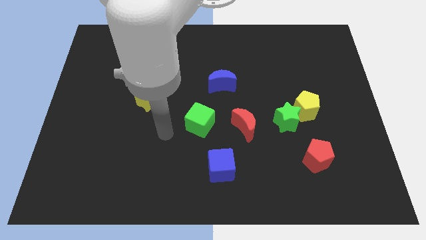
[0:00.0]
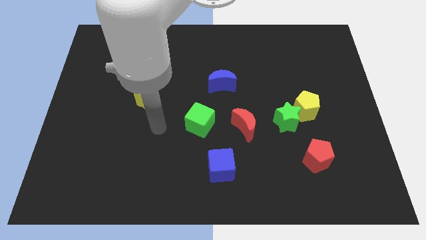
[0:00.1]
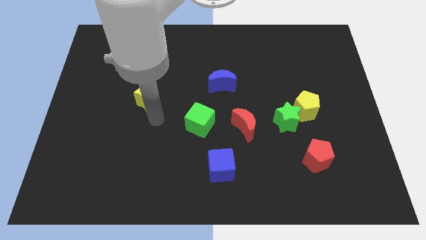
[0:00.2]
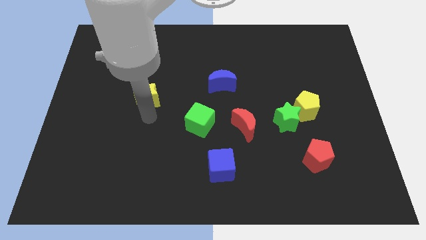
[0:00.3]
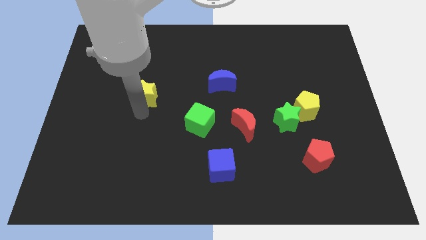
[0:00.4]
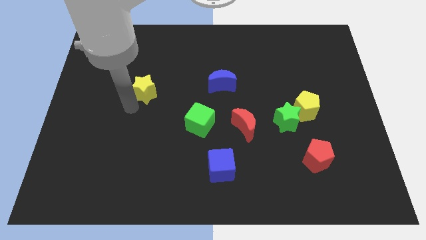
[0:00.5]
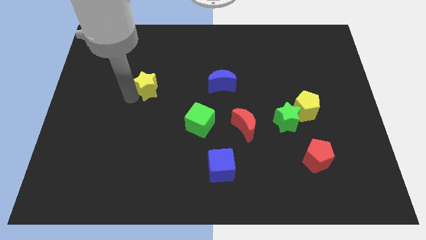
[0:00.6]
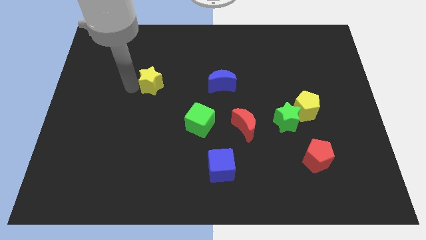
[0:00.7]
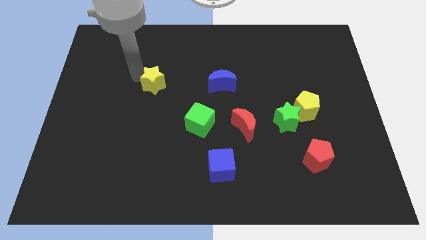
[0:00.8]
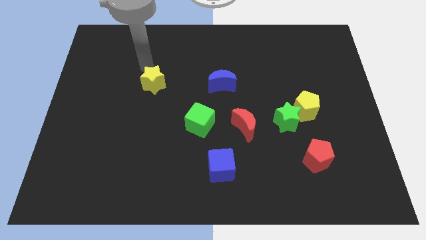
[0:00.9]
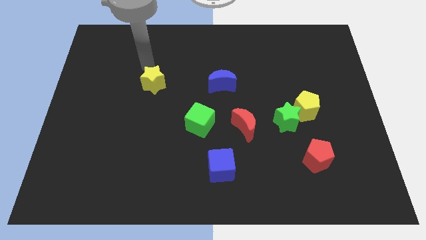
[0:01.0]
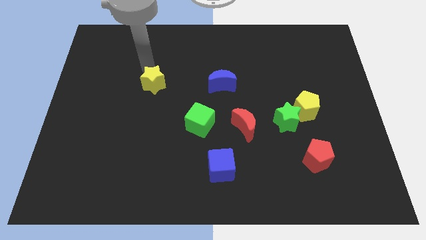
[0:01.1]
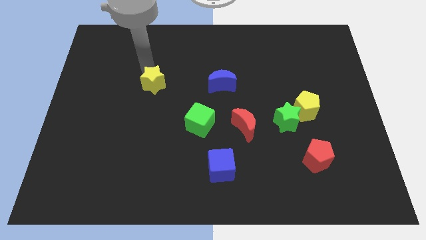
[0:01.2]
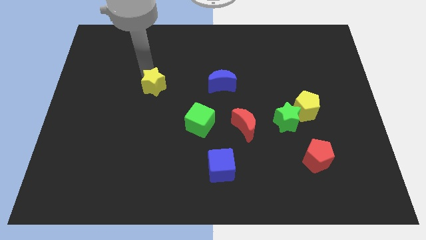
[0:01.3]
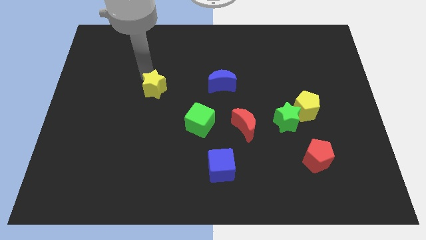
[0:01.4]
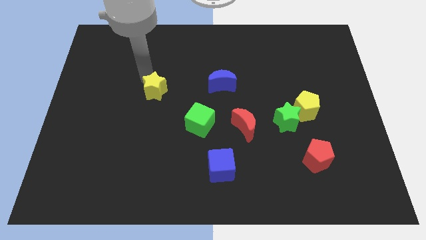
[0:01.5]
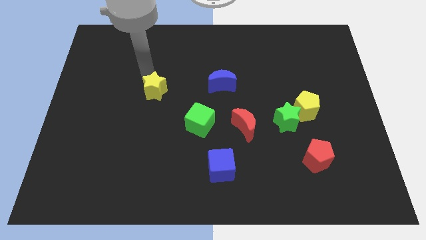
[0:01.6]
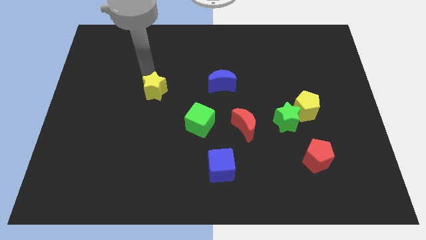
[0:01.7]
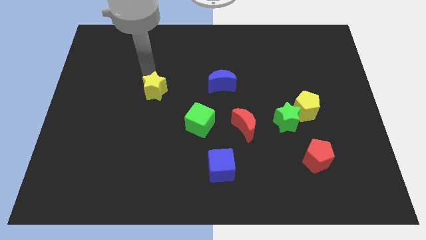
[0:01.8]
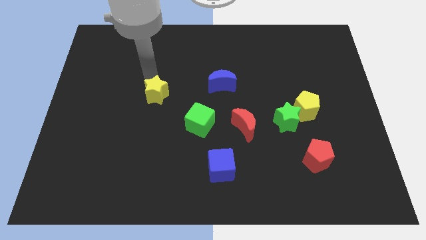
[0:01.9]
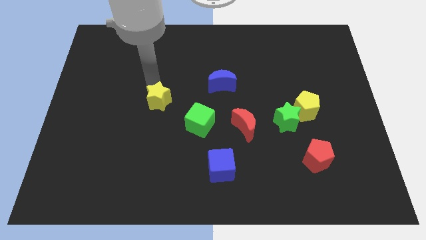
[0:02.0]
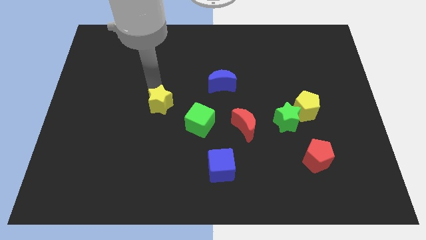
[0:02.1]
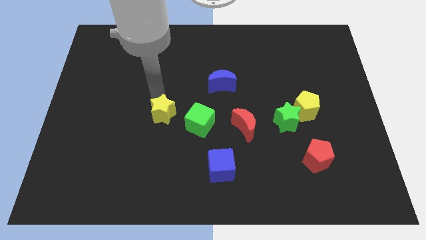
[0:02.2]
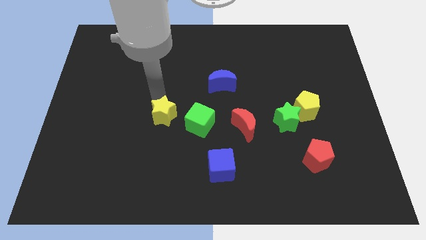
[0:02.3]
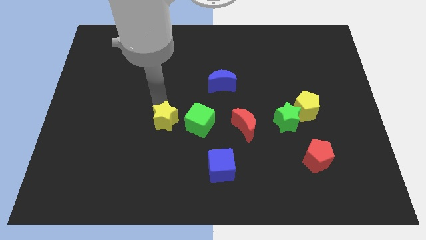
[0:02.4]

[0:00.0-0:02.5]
slightly push the yellow star down and then right

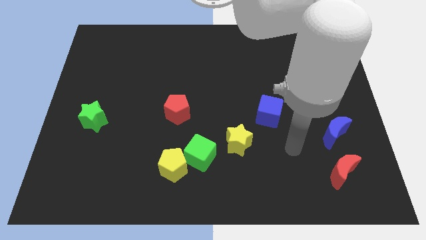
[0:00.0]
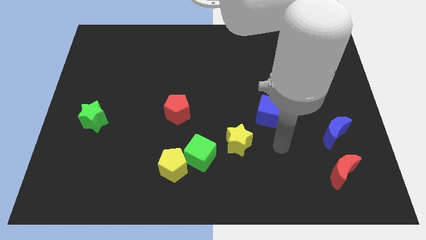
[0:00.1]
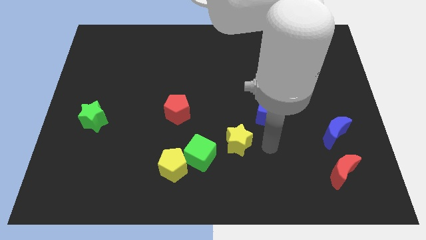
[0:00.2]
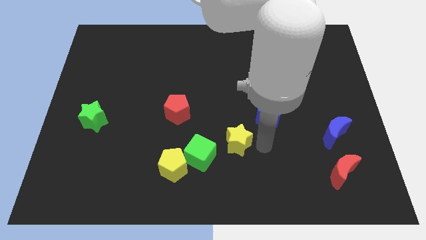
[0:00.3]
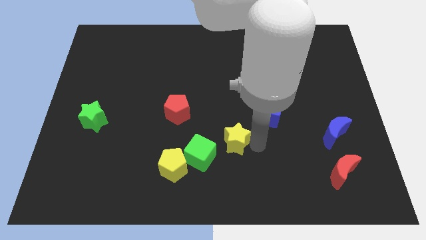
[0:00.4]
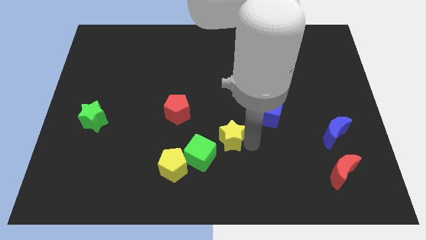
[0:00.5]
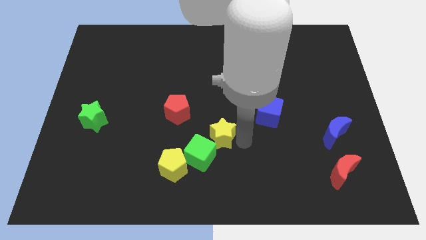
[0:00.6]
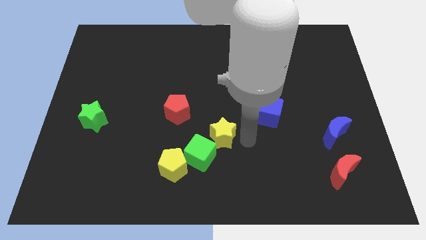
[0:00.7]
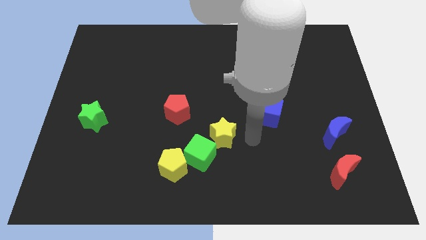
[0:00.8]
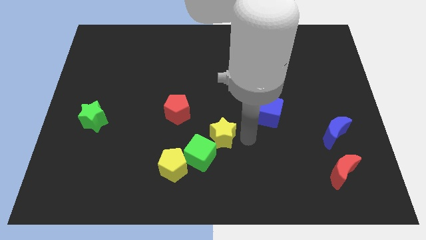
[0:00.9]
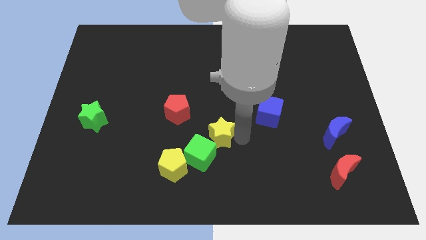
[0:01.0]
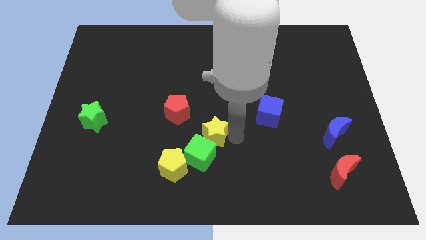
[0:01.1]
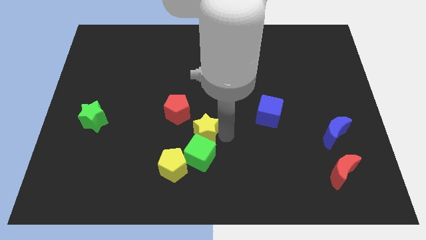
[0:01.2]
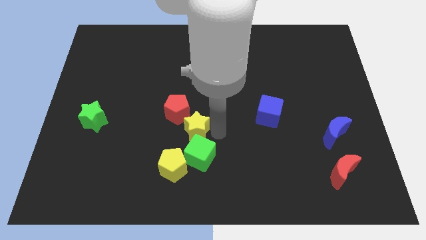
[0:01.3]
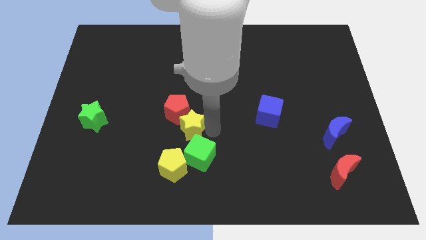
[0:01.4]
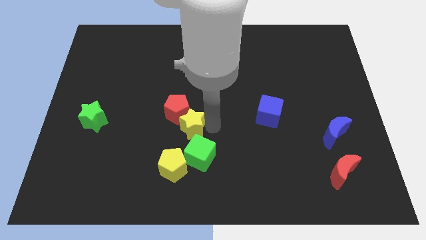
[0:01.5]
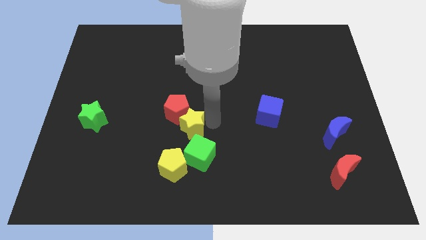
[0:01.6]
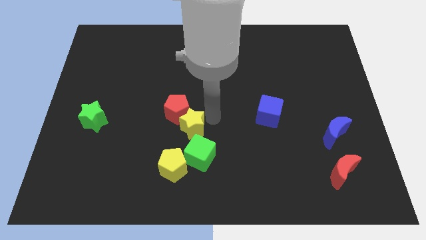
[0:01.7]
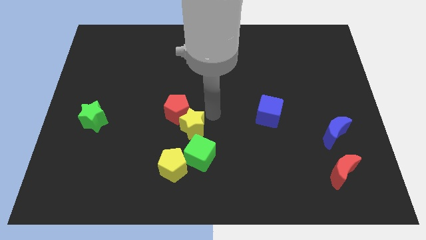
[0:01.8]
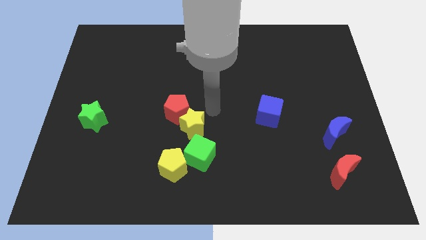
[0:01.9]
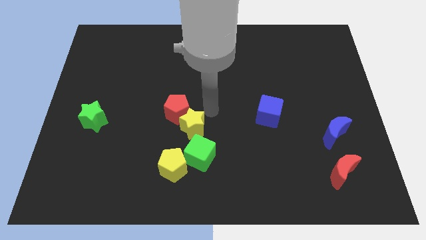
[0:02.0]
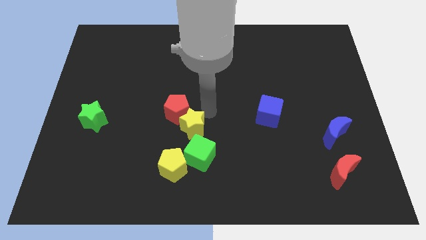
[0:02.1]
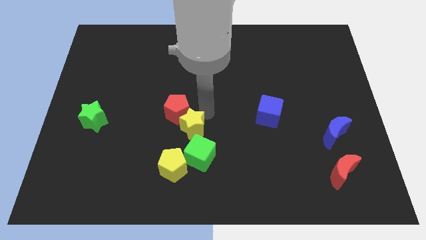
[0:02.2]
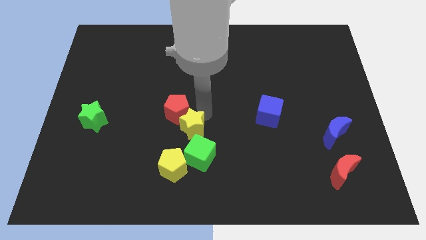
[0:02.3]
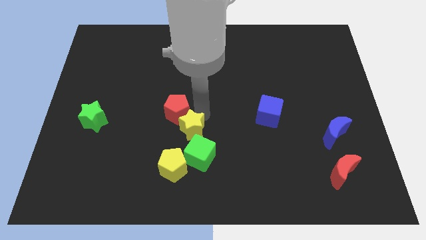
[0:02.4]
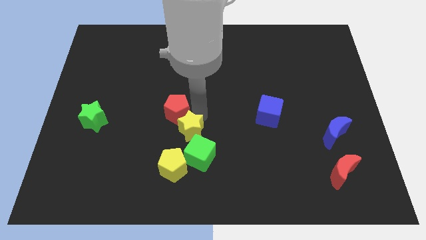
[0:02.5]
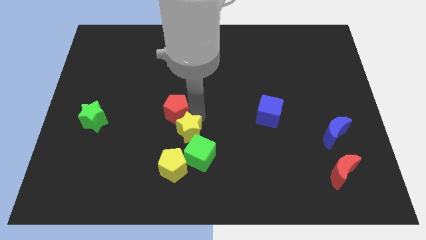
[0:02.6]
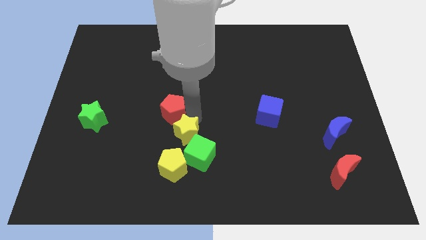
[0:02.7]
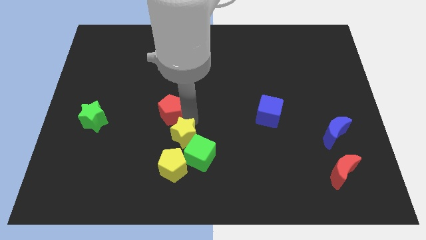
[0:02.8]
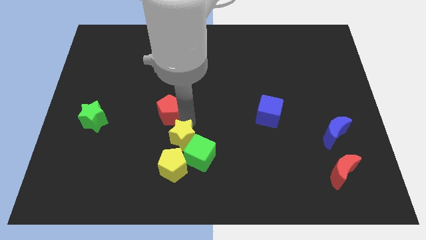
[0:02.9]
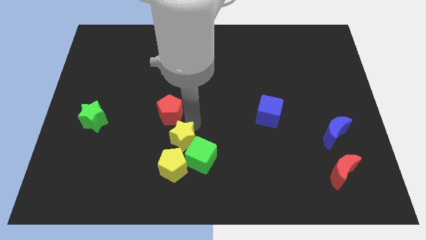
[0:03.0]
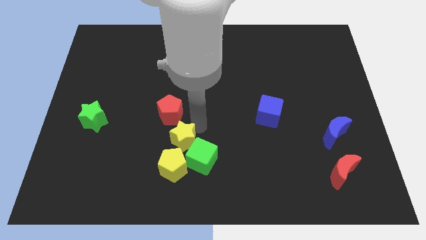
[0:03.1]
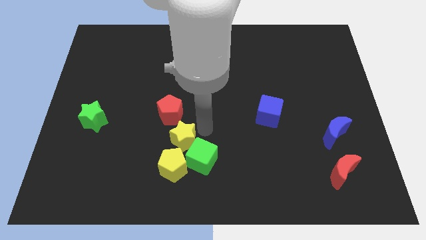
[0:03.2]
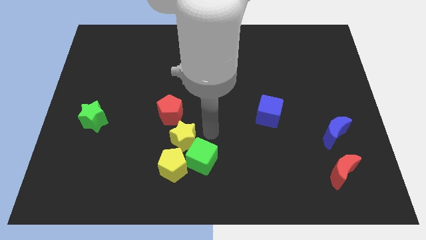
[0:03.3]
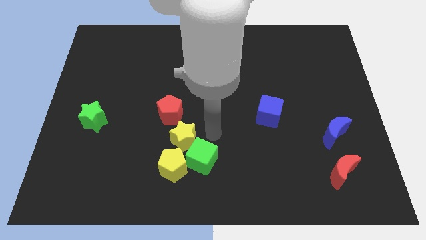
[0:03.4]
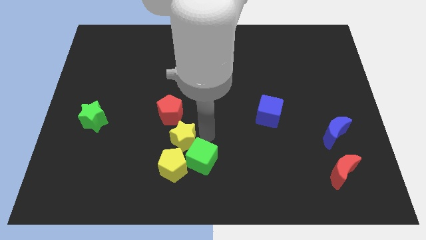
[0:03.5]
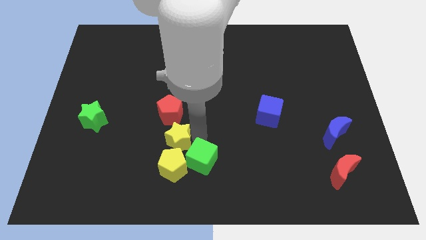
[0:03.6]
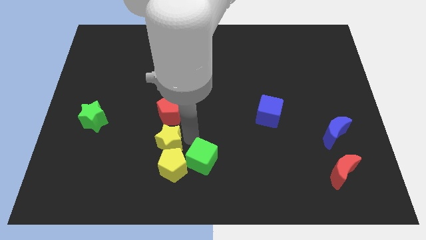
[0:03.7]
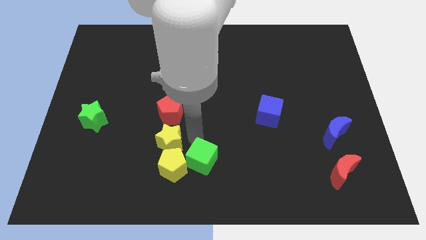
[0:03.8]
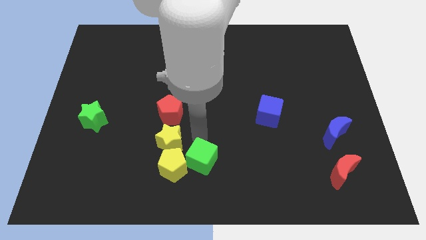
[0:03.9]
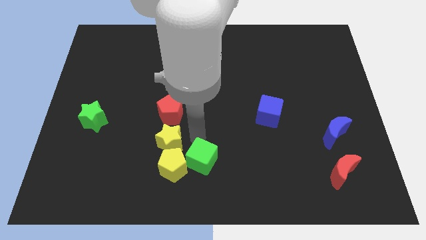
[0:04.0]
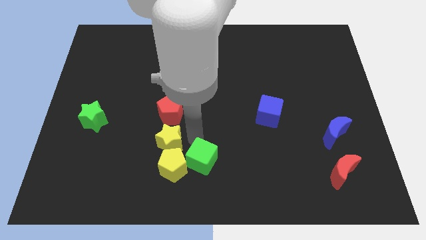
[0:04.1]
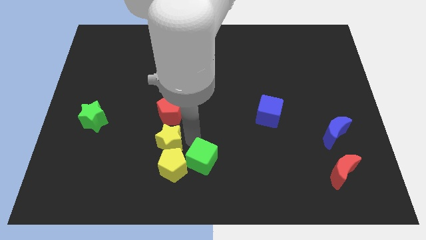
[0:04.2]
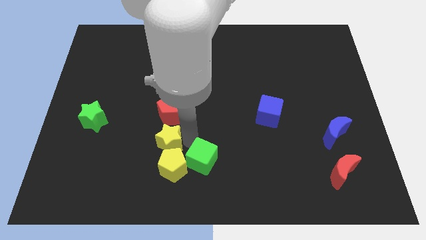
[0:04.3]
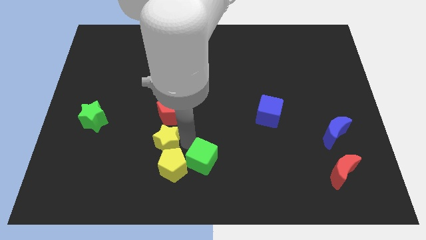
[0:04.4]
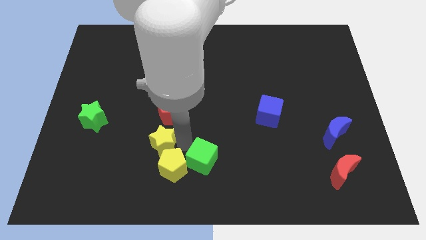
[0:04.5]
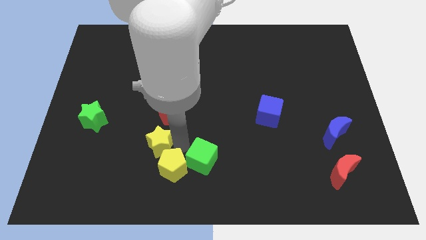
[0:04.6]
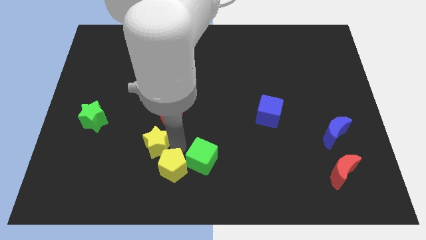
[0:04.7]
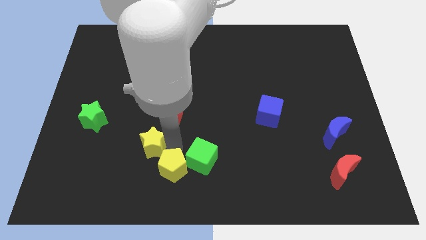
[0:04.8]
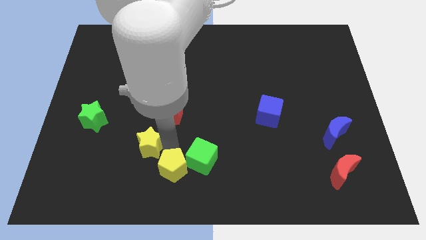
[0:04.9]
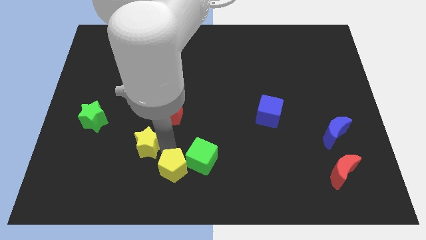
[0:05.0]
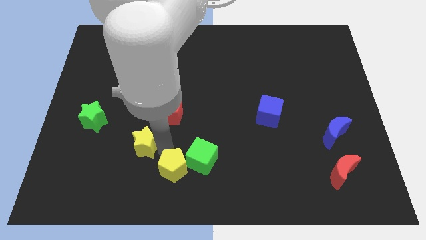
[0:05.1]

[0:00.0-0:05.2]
move the yellow star left

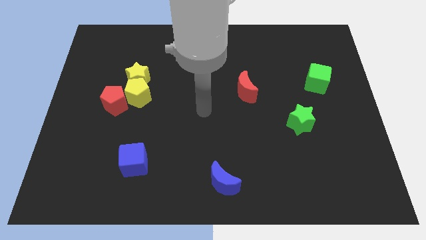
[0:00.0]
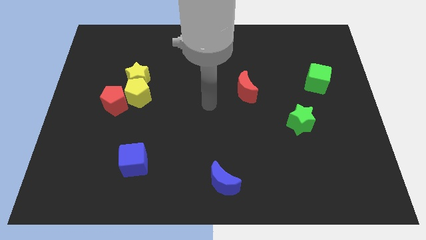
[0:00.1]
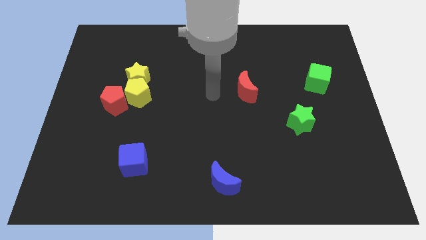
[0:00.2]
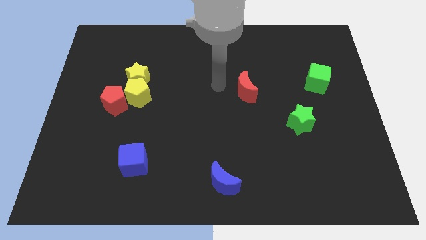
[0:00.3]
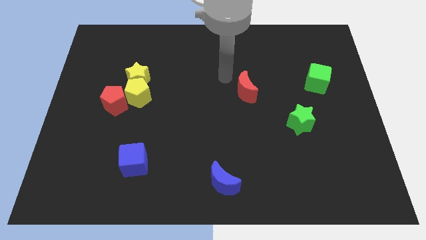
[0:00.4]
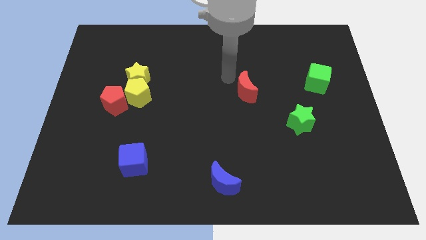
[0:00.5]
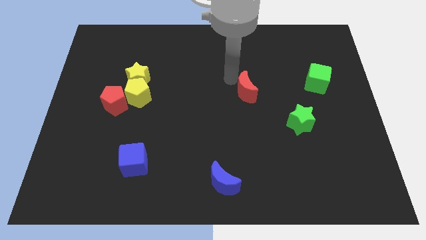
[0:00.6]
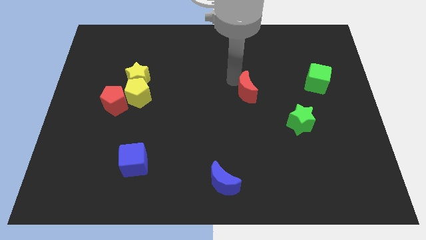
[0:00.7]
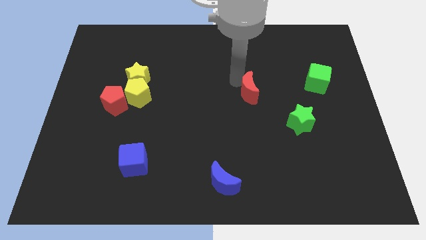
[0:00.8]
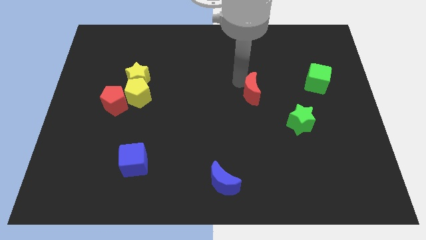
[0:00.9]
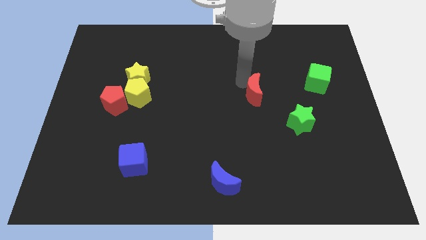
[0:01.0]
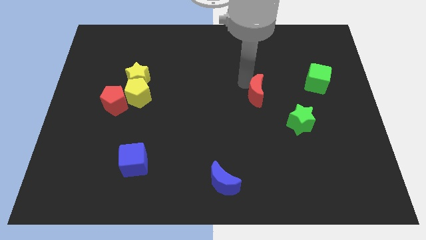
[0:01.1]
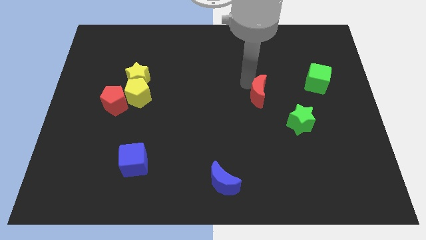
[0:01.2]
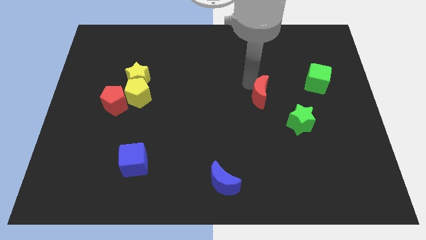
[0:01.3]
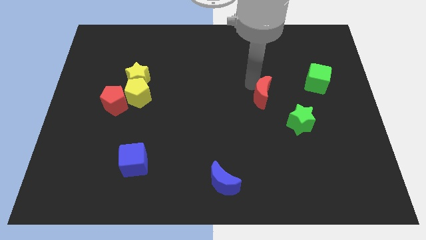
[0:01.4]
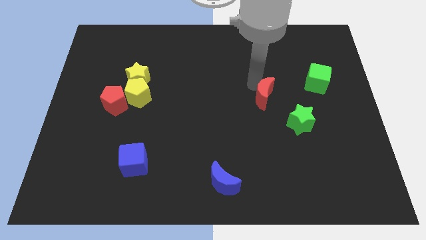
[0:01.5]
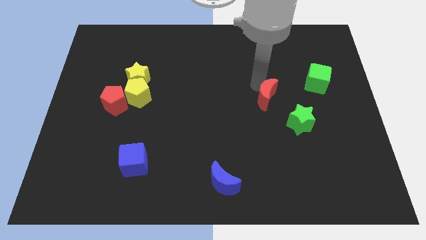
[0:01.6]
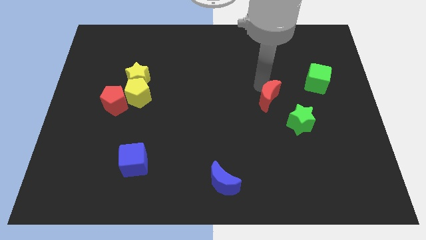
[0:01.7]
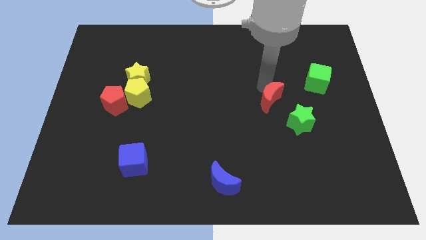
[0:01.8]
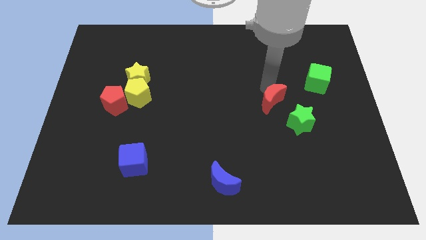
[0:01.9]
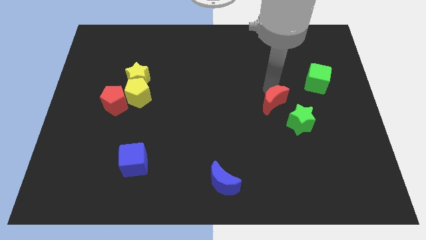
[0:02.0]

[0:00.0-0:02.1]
move the red moon diagonally downwards and right a little
